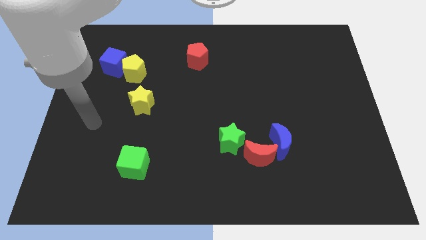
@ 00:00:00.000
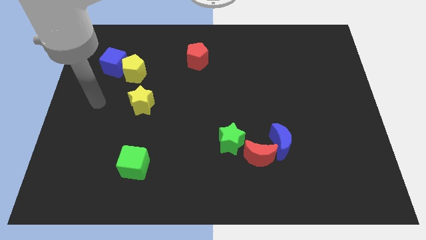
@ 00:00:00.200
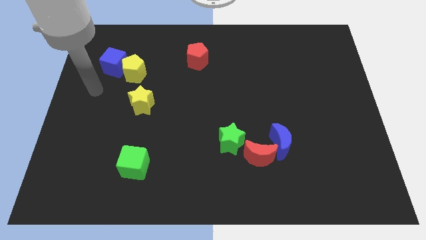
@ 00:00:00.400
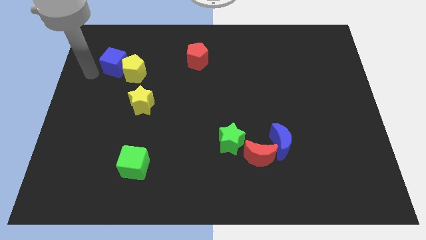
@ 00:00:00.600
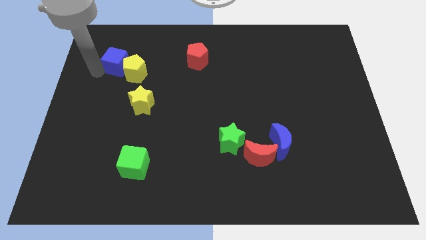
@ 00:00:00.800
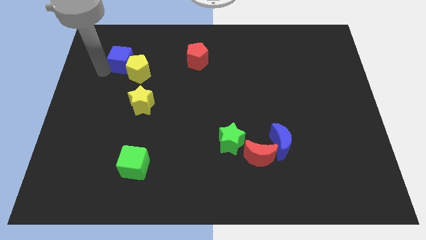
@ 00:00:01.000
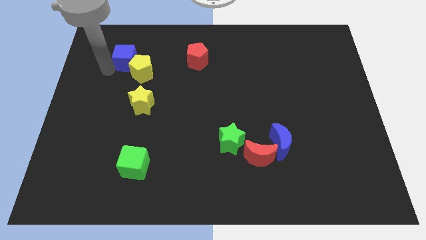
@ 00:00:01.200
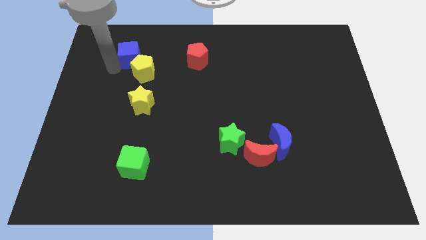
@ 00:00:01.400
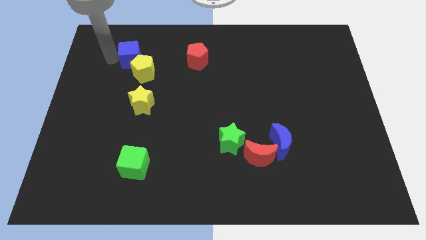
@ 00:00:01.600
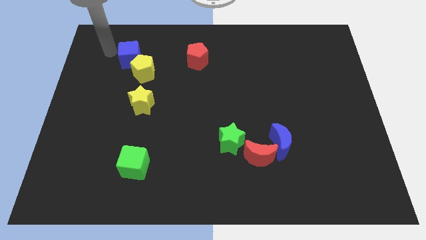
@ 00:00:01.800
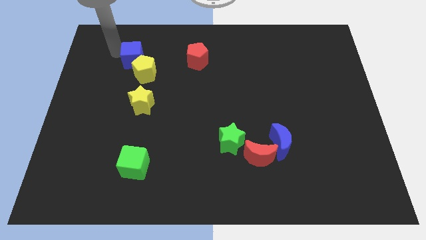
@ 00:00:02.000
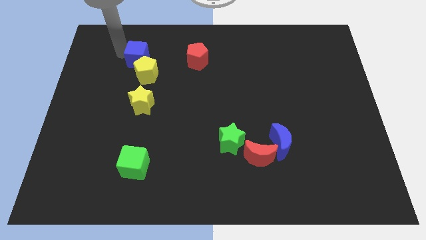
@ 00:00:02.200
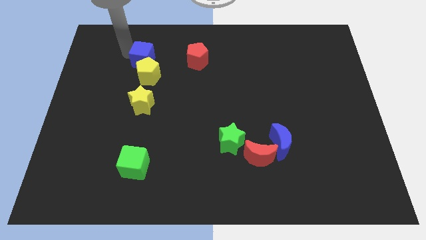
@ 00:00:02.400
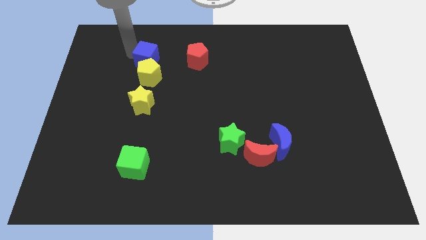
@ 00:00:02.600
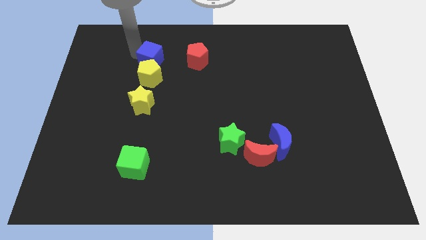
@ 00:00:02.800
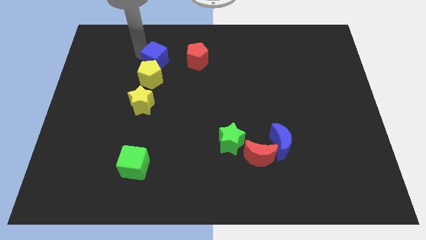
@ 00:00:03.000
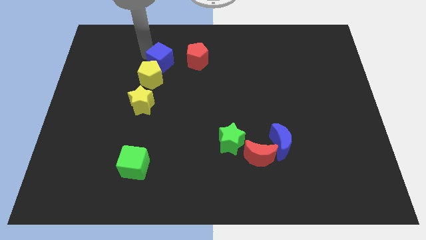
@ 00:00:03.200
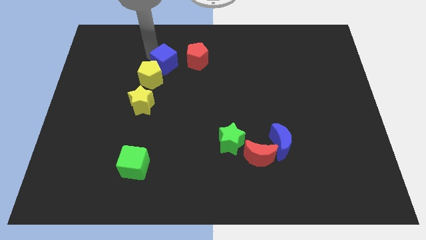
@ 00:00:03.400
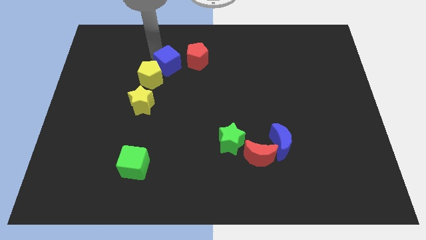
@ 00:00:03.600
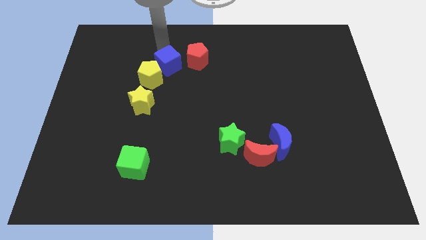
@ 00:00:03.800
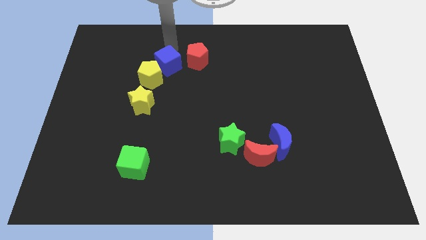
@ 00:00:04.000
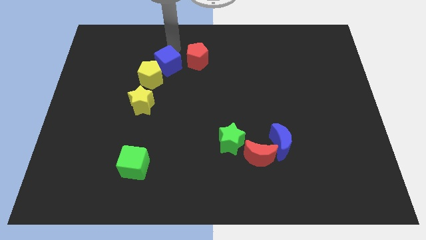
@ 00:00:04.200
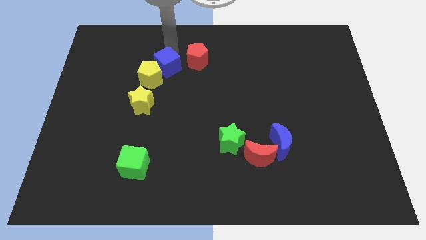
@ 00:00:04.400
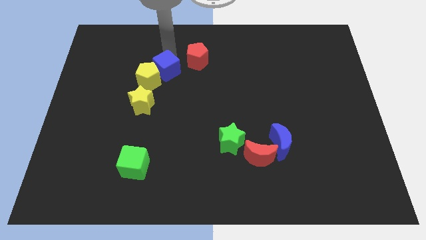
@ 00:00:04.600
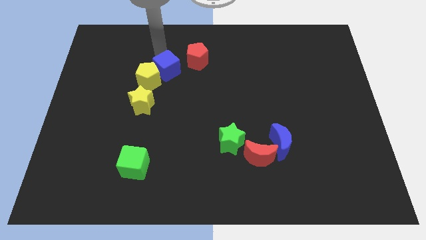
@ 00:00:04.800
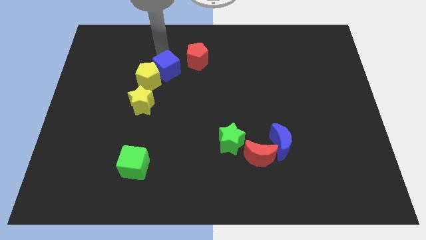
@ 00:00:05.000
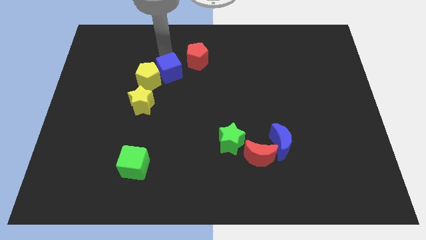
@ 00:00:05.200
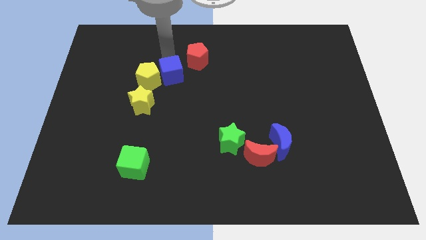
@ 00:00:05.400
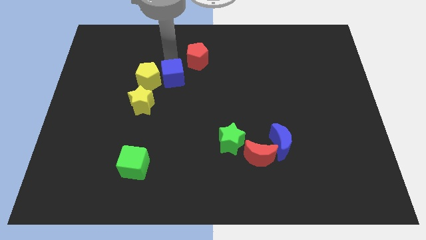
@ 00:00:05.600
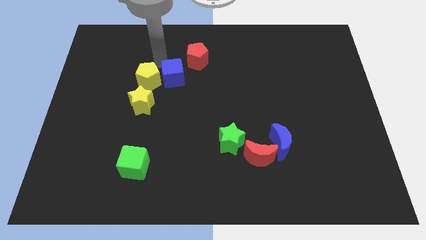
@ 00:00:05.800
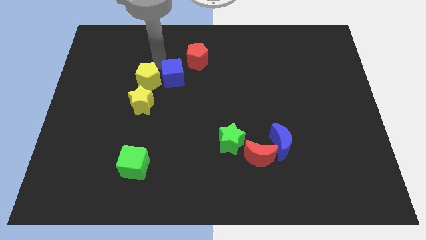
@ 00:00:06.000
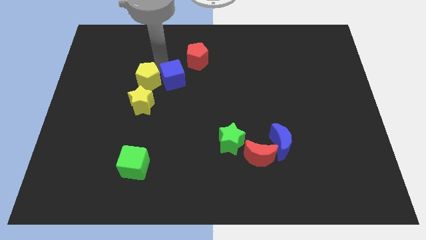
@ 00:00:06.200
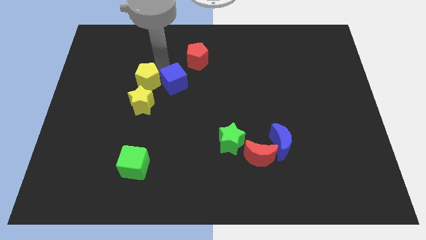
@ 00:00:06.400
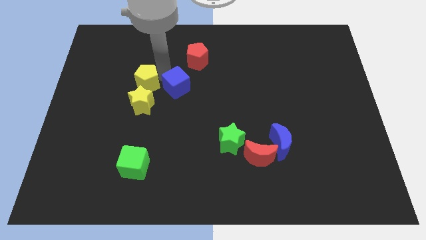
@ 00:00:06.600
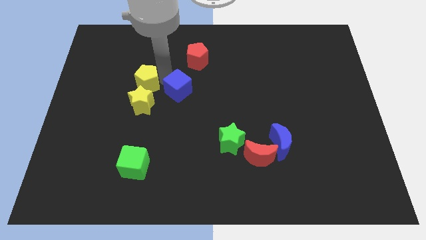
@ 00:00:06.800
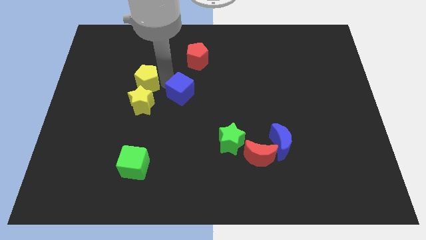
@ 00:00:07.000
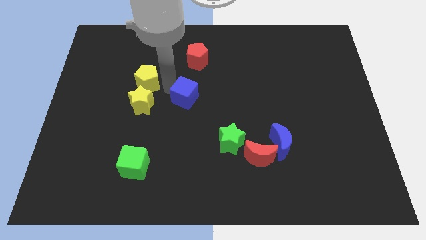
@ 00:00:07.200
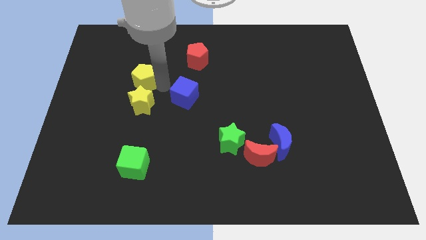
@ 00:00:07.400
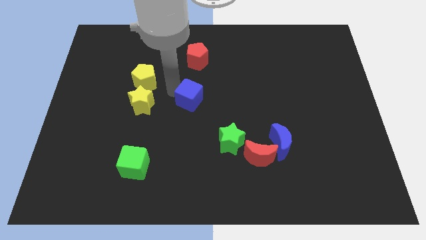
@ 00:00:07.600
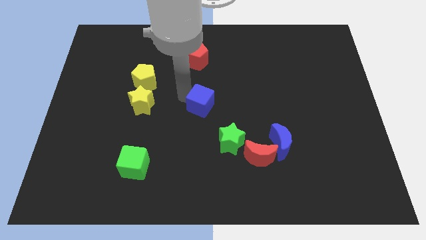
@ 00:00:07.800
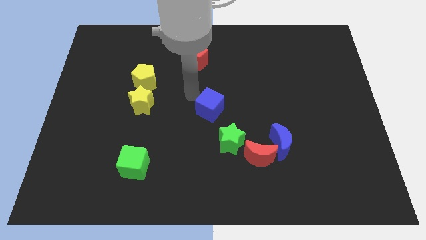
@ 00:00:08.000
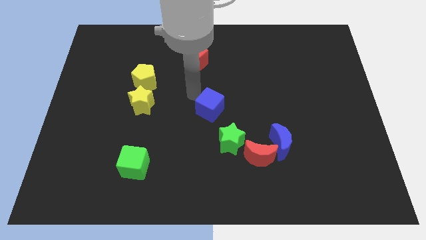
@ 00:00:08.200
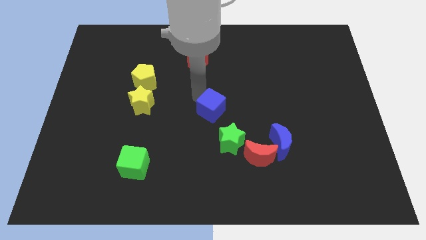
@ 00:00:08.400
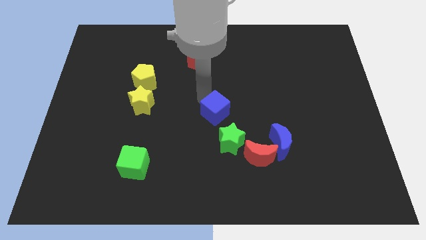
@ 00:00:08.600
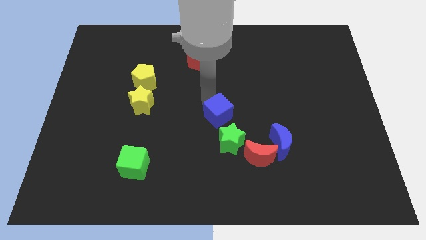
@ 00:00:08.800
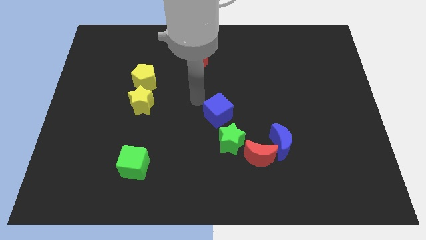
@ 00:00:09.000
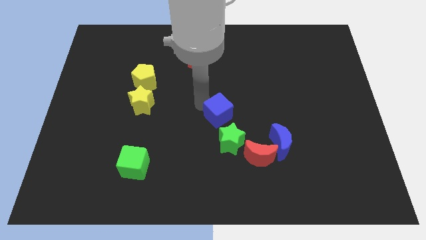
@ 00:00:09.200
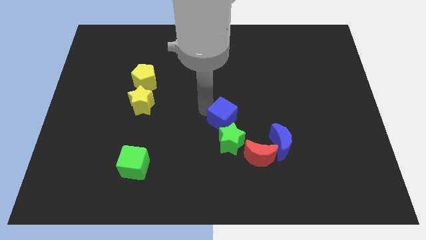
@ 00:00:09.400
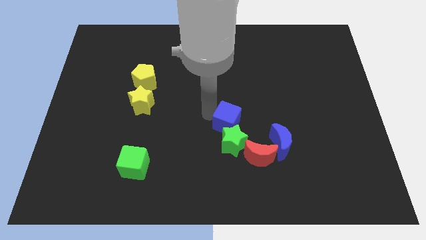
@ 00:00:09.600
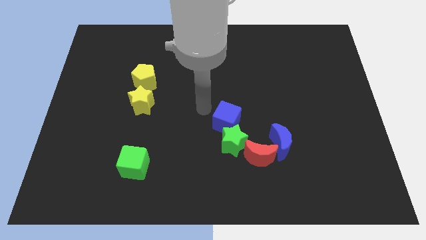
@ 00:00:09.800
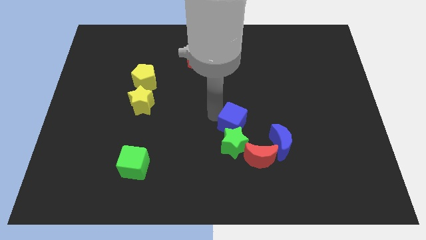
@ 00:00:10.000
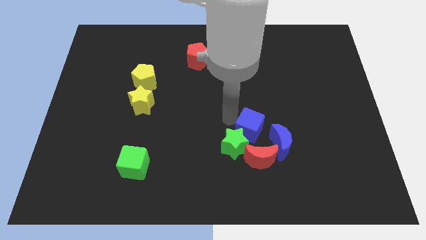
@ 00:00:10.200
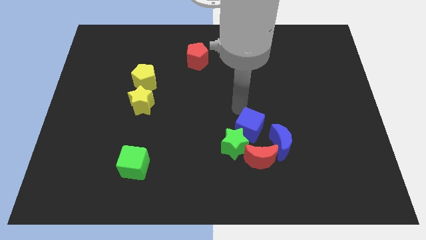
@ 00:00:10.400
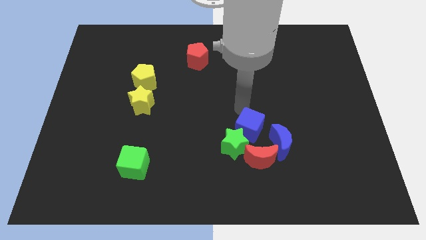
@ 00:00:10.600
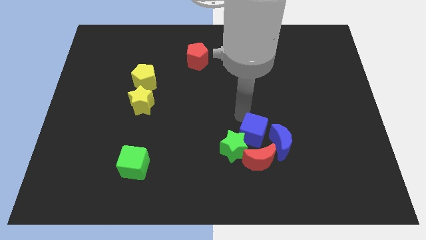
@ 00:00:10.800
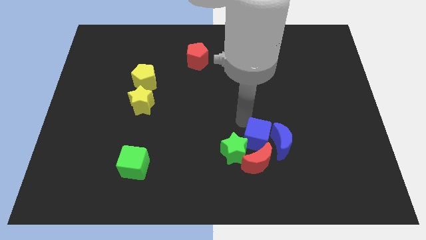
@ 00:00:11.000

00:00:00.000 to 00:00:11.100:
push the blue cube towards the red moon

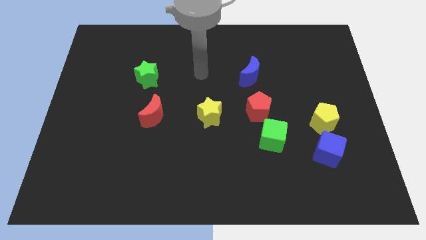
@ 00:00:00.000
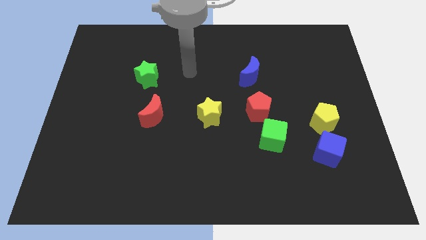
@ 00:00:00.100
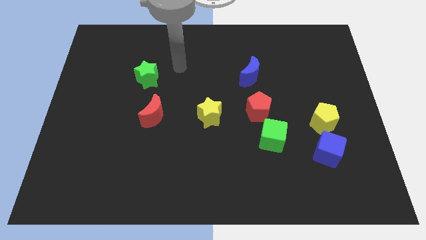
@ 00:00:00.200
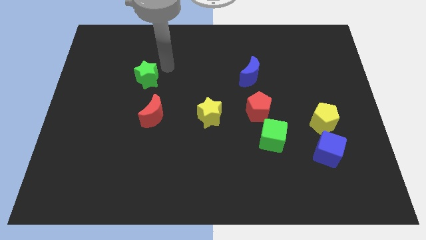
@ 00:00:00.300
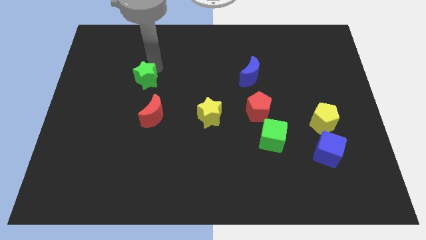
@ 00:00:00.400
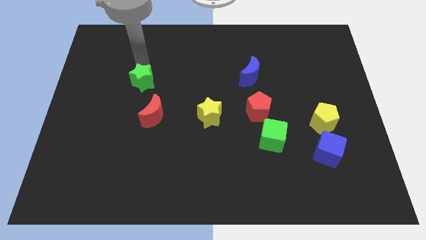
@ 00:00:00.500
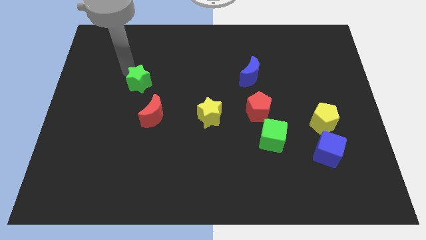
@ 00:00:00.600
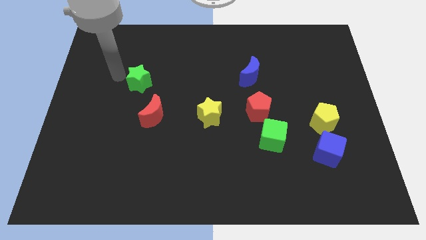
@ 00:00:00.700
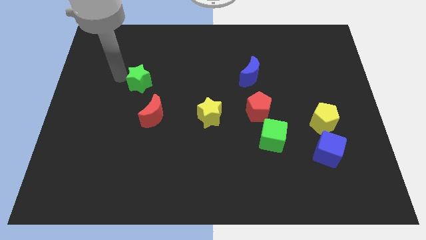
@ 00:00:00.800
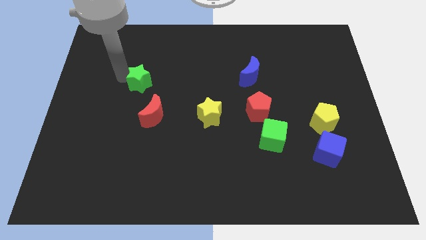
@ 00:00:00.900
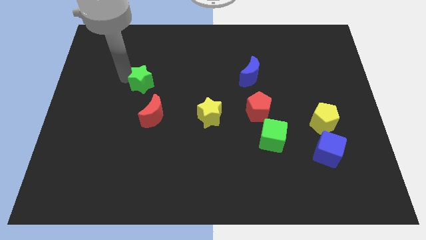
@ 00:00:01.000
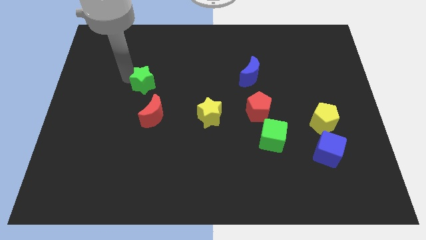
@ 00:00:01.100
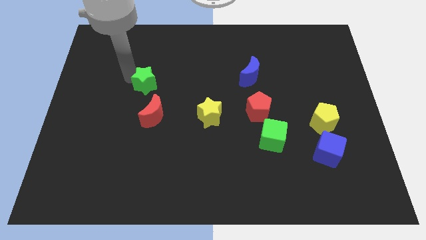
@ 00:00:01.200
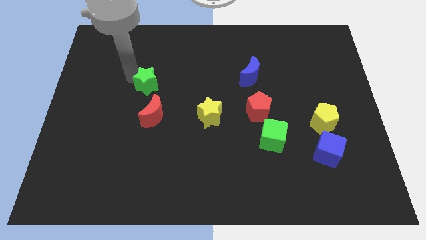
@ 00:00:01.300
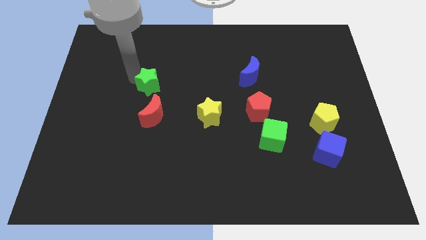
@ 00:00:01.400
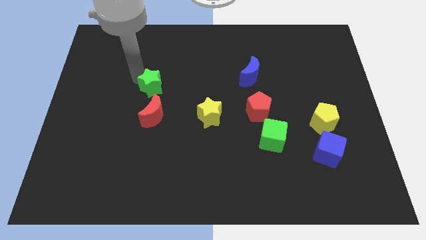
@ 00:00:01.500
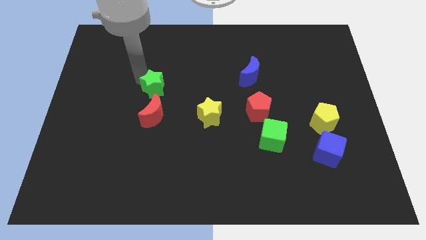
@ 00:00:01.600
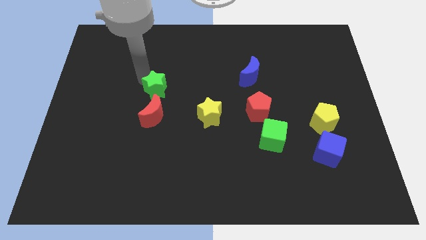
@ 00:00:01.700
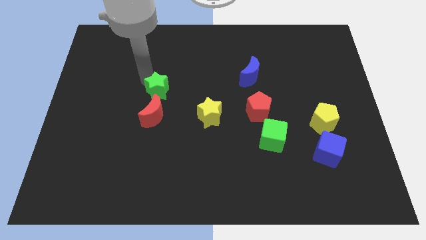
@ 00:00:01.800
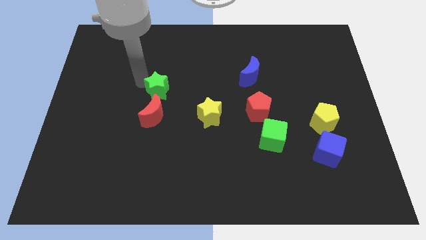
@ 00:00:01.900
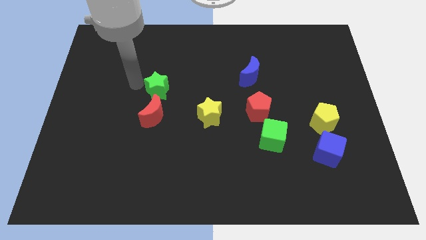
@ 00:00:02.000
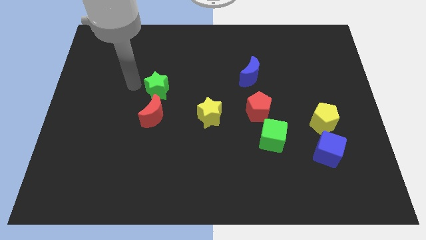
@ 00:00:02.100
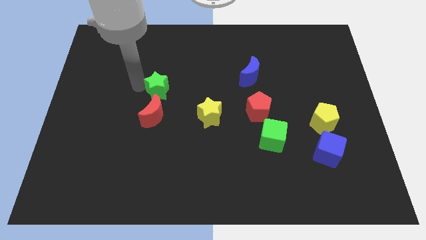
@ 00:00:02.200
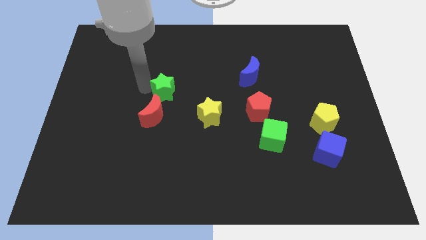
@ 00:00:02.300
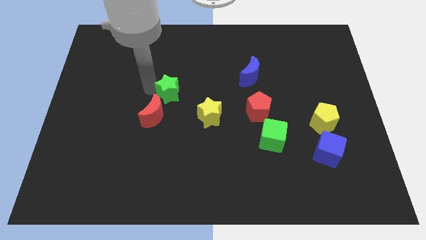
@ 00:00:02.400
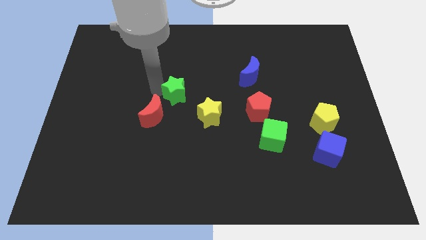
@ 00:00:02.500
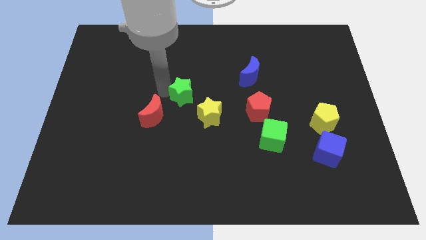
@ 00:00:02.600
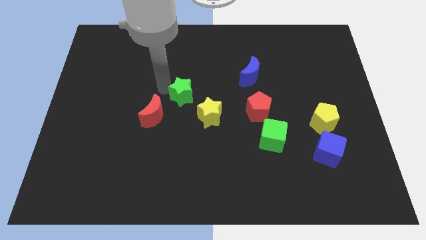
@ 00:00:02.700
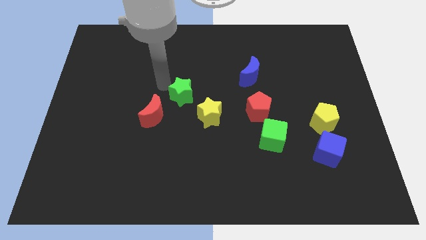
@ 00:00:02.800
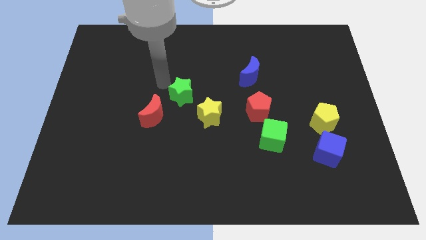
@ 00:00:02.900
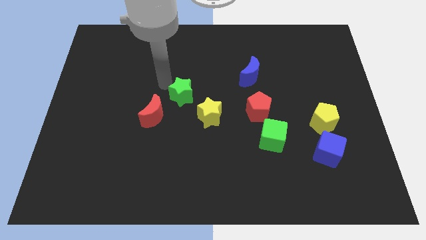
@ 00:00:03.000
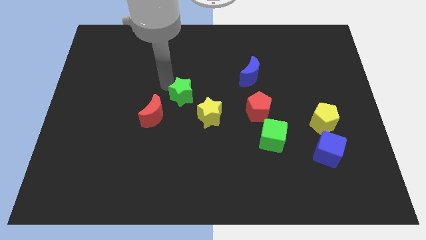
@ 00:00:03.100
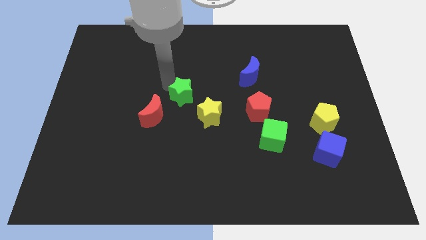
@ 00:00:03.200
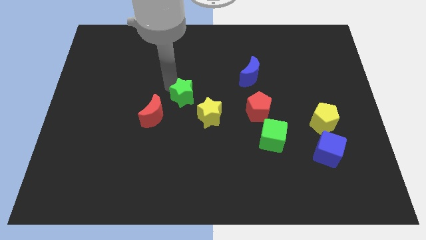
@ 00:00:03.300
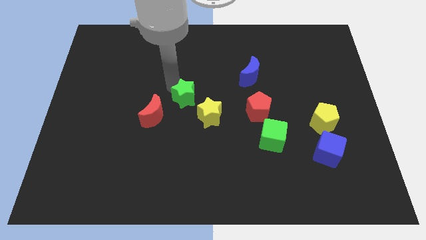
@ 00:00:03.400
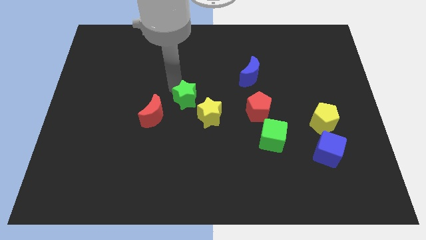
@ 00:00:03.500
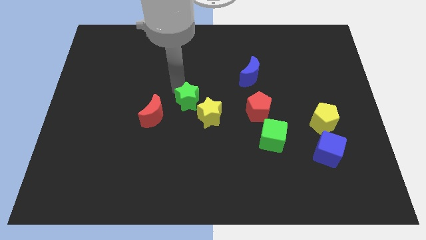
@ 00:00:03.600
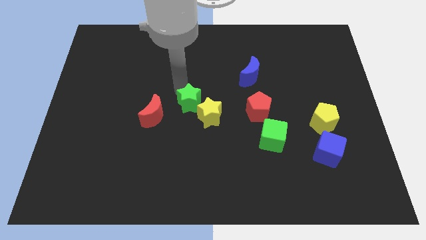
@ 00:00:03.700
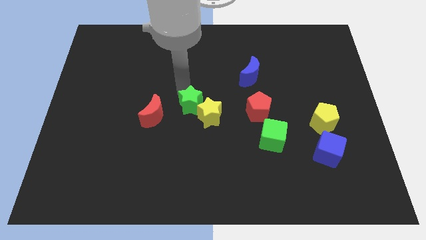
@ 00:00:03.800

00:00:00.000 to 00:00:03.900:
move the green star next to the yellow star
